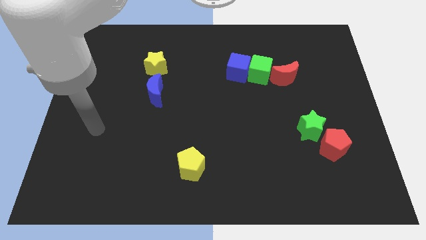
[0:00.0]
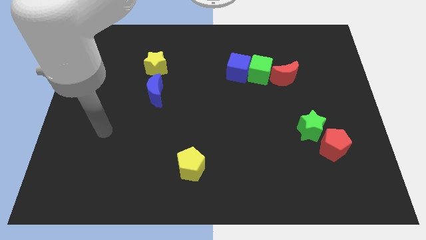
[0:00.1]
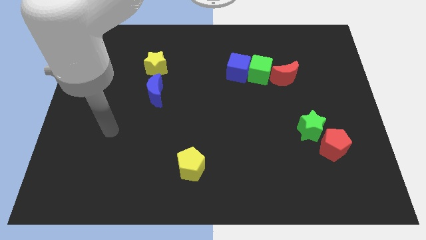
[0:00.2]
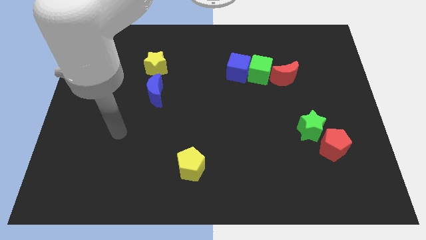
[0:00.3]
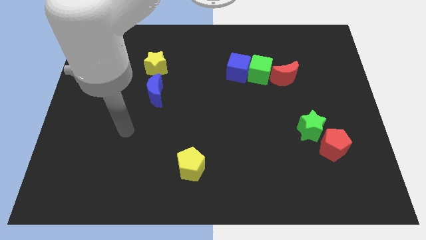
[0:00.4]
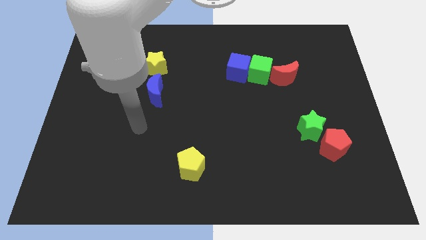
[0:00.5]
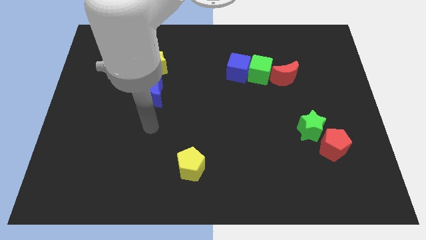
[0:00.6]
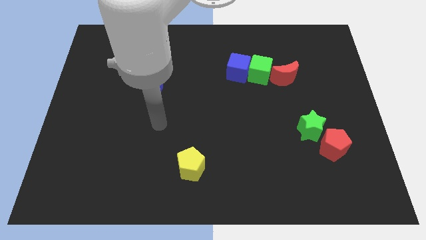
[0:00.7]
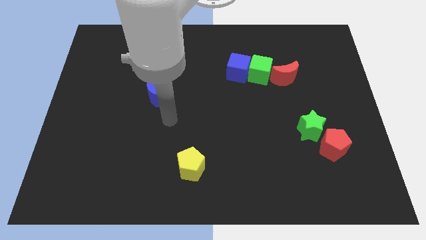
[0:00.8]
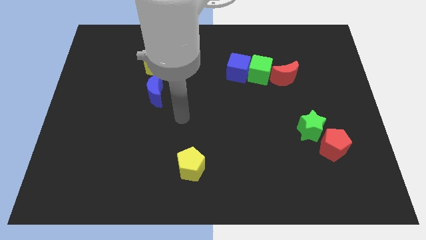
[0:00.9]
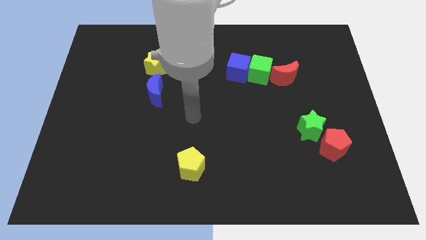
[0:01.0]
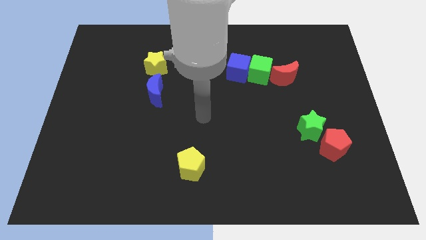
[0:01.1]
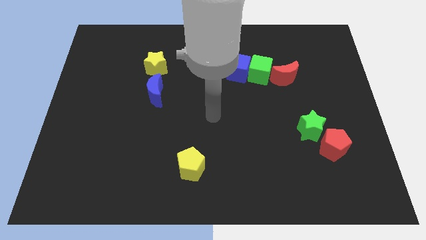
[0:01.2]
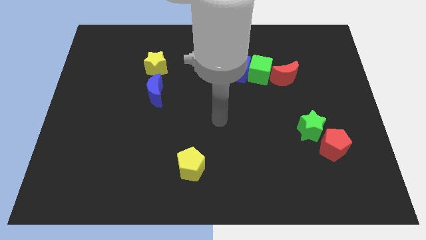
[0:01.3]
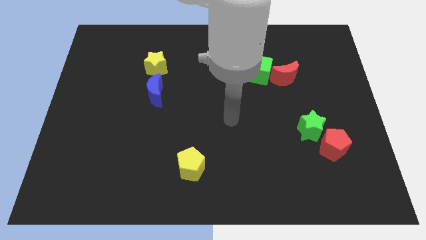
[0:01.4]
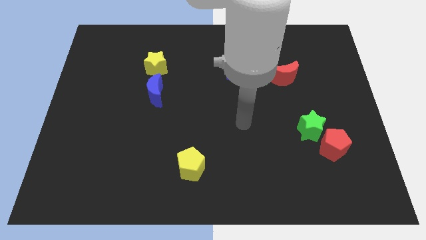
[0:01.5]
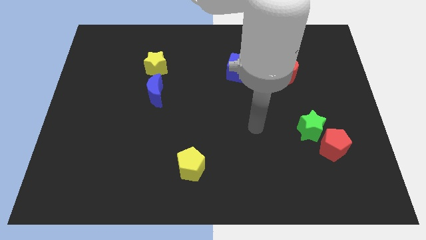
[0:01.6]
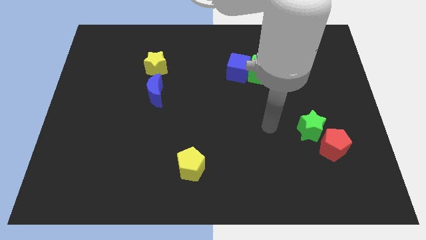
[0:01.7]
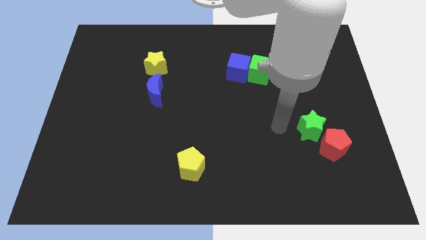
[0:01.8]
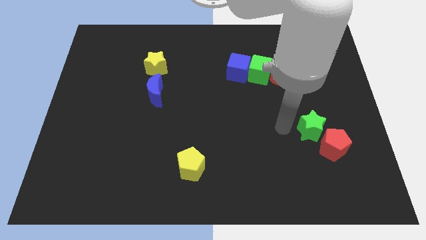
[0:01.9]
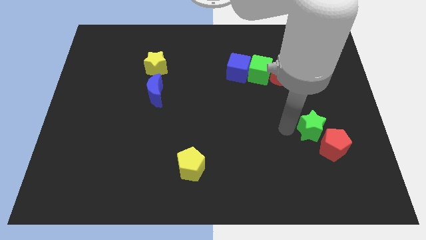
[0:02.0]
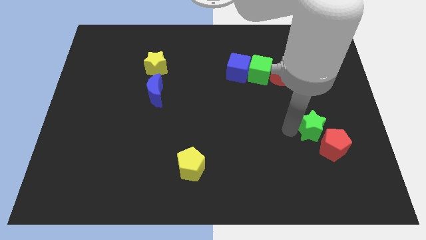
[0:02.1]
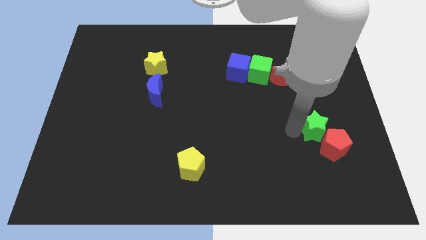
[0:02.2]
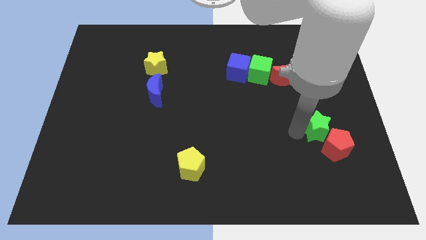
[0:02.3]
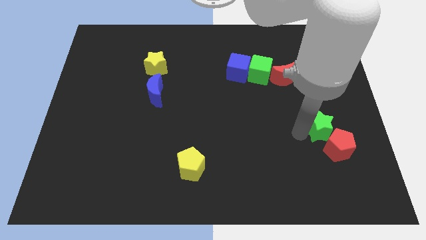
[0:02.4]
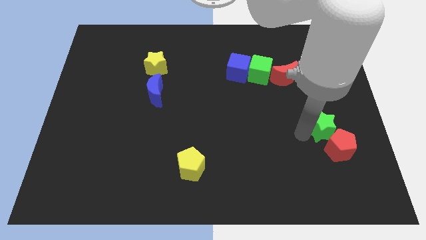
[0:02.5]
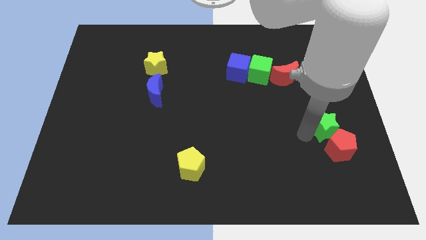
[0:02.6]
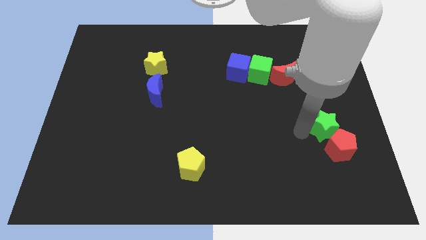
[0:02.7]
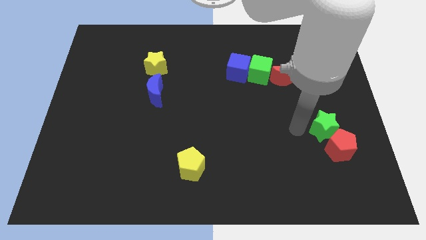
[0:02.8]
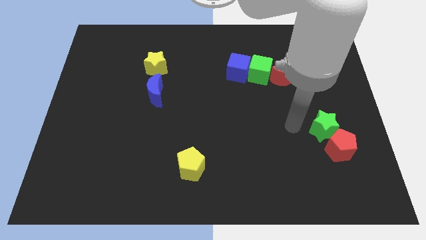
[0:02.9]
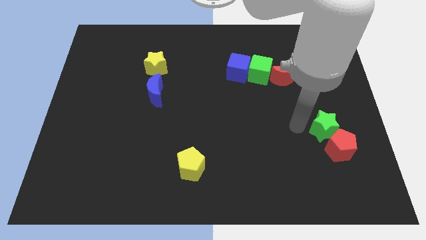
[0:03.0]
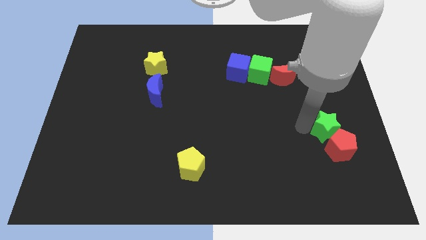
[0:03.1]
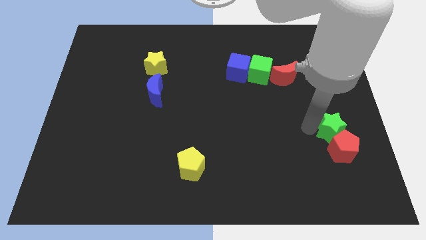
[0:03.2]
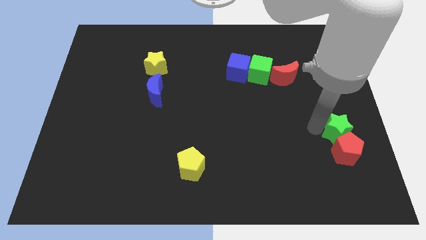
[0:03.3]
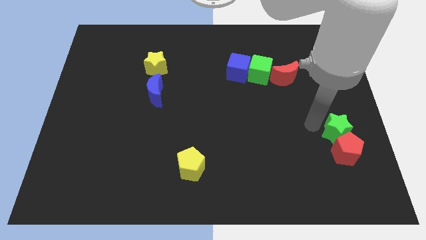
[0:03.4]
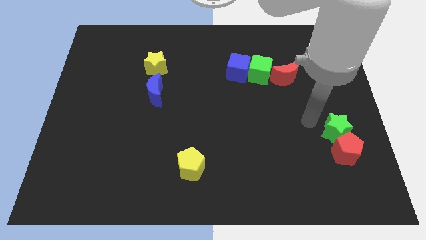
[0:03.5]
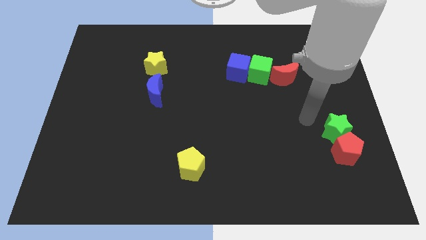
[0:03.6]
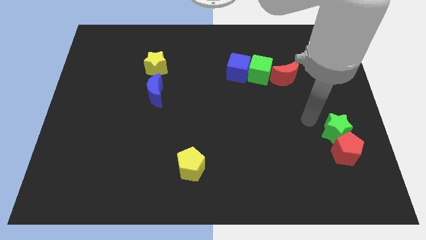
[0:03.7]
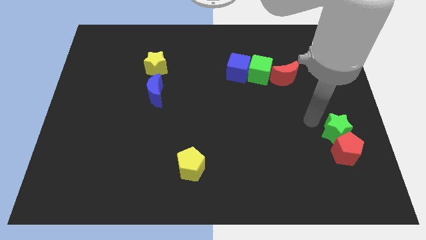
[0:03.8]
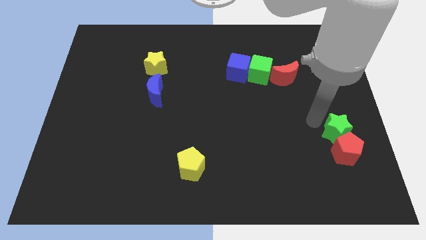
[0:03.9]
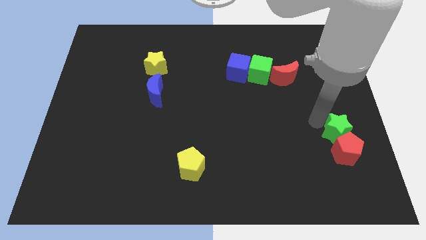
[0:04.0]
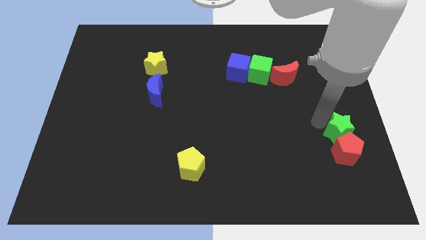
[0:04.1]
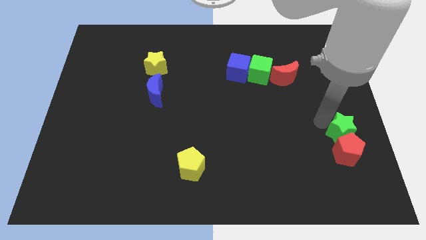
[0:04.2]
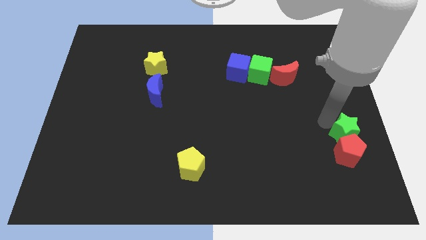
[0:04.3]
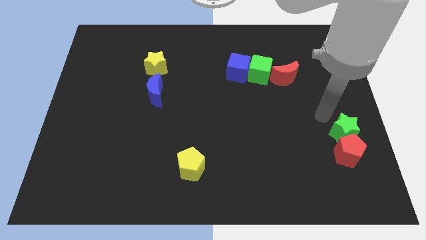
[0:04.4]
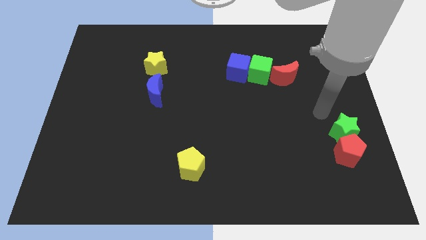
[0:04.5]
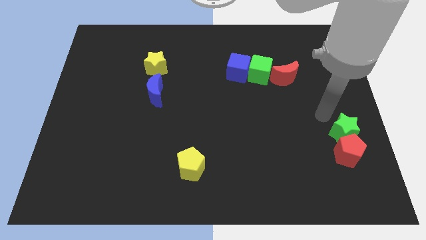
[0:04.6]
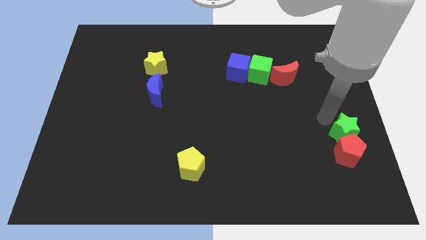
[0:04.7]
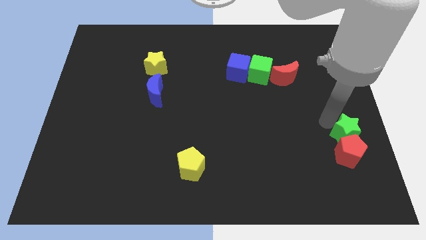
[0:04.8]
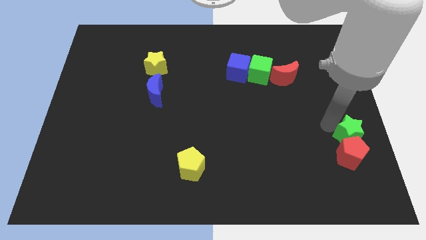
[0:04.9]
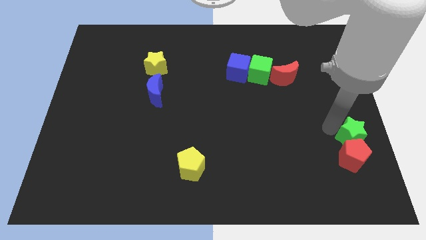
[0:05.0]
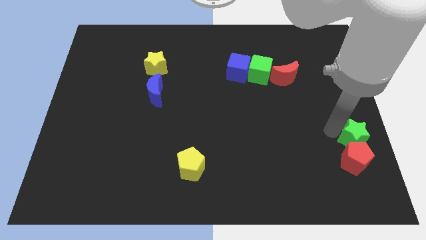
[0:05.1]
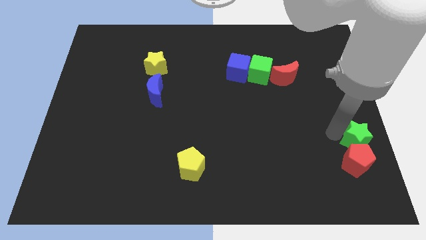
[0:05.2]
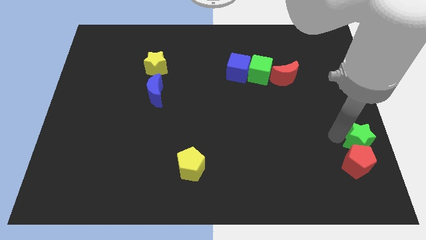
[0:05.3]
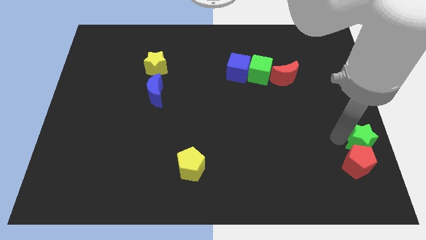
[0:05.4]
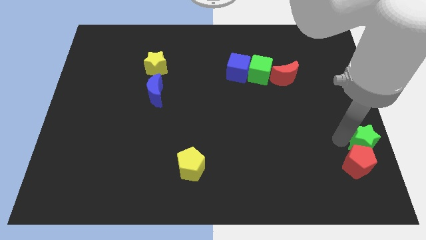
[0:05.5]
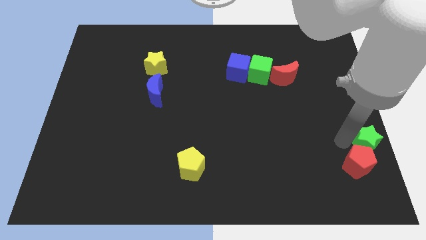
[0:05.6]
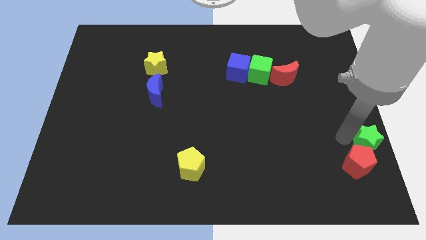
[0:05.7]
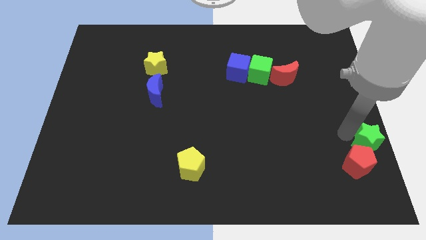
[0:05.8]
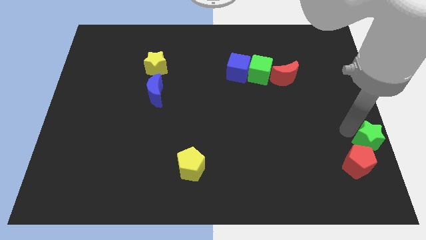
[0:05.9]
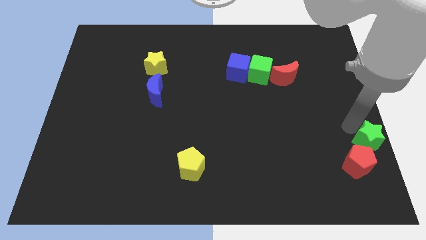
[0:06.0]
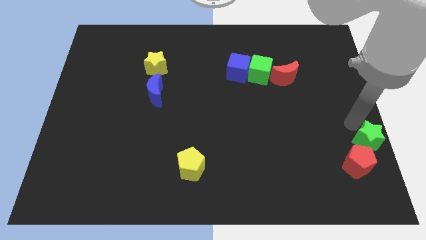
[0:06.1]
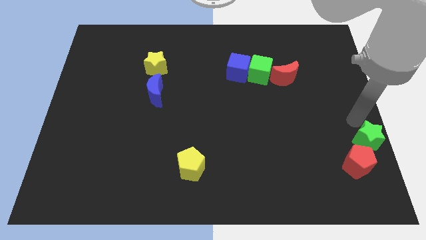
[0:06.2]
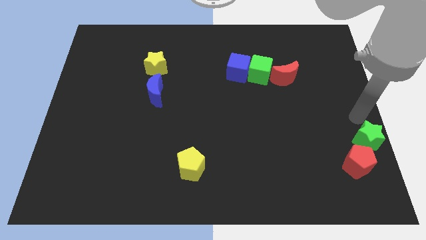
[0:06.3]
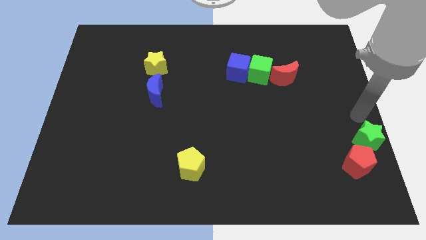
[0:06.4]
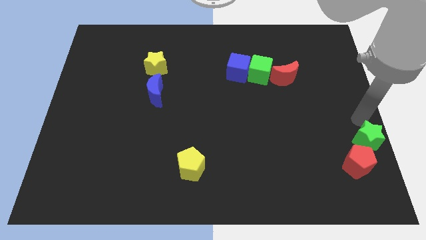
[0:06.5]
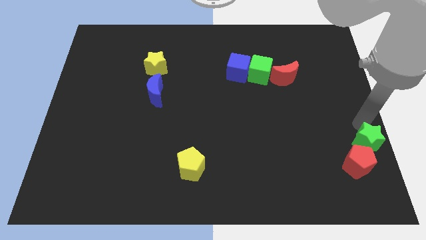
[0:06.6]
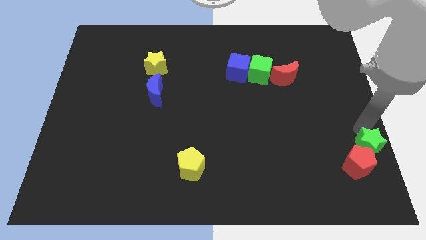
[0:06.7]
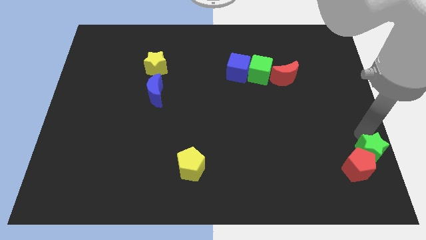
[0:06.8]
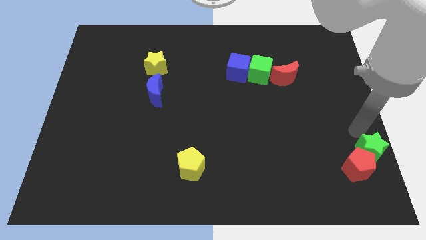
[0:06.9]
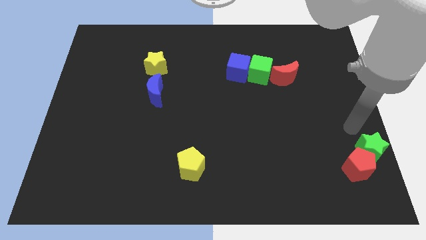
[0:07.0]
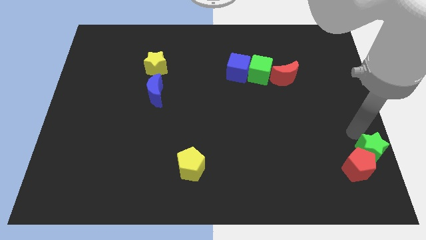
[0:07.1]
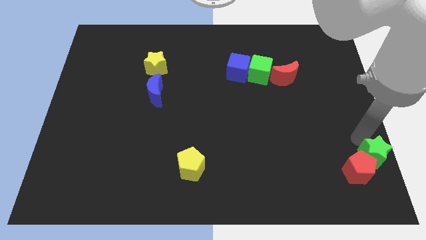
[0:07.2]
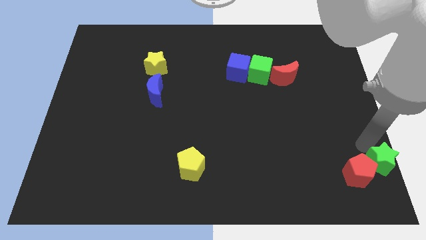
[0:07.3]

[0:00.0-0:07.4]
put the green star to the lower right corner
